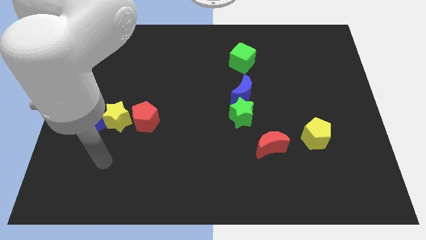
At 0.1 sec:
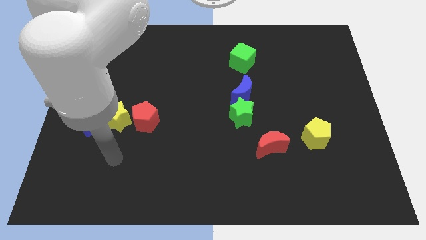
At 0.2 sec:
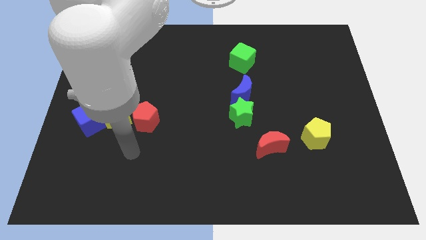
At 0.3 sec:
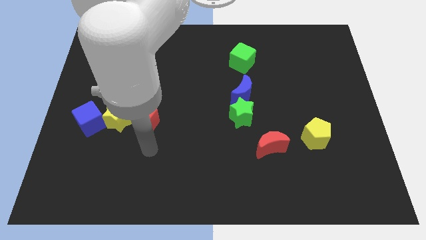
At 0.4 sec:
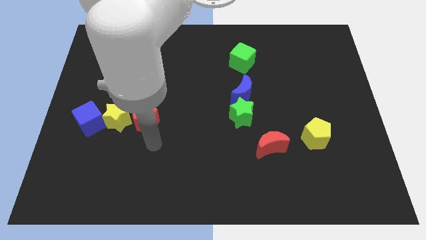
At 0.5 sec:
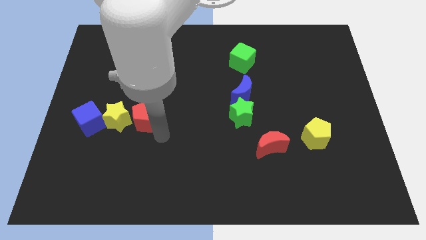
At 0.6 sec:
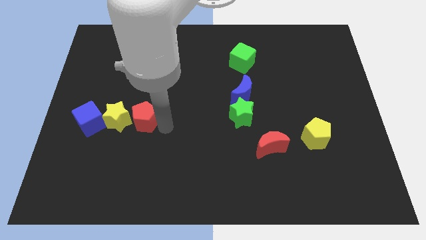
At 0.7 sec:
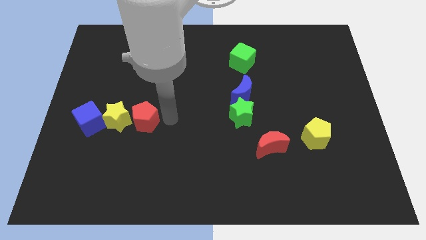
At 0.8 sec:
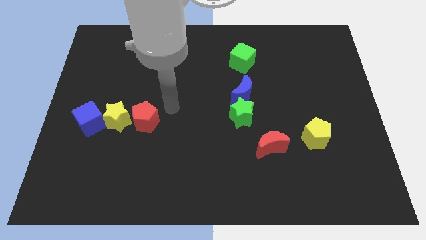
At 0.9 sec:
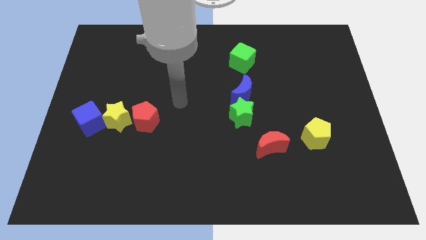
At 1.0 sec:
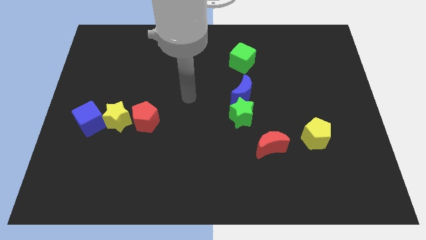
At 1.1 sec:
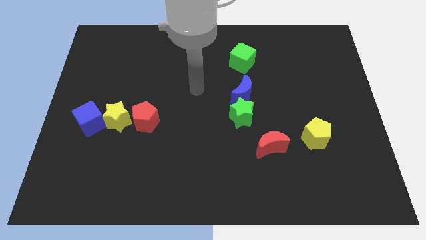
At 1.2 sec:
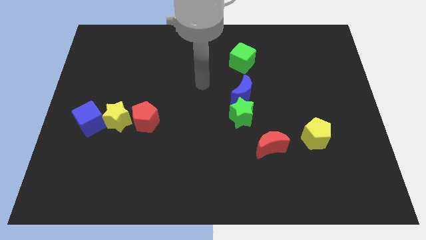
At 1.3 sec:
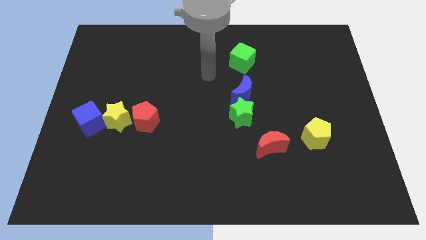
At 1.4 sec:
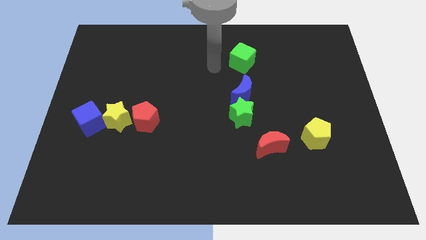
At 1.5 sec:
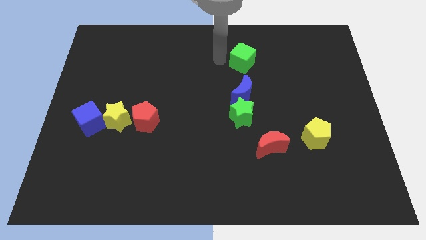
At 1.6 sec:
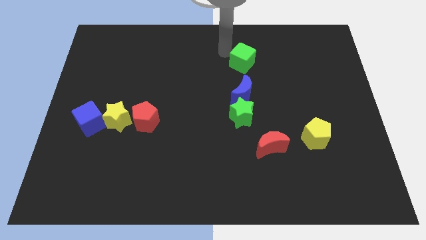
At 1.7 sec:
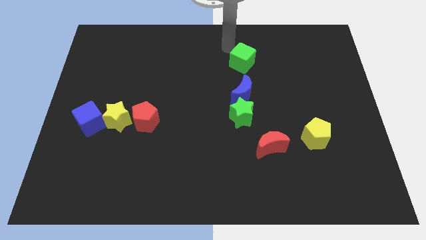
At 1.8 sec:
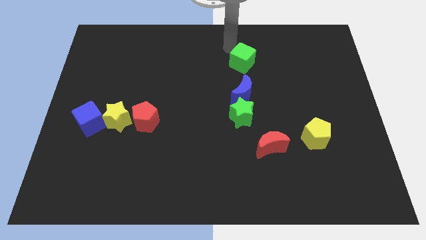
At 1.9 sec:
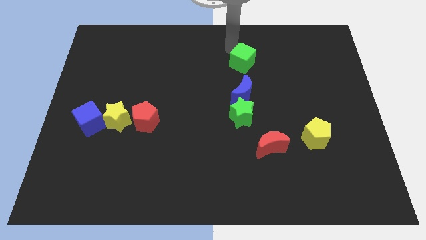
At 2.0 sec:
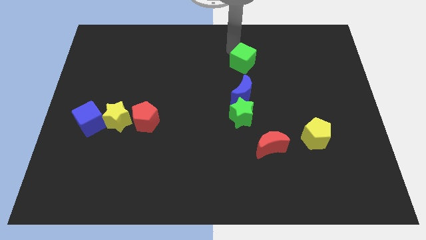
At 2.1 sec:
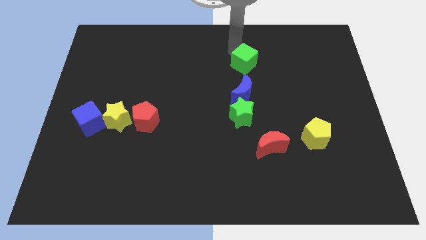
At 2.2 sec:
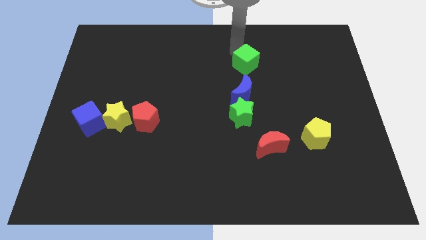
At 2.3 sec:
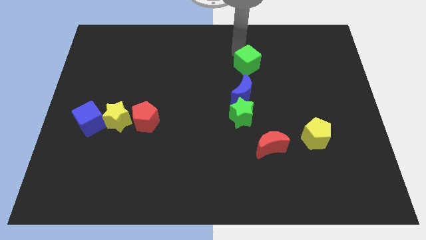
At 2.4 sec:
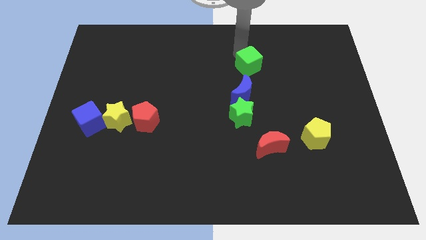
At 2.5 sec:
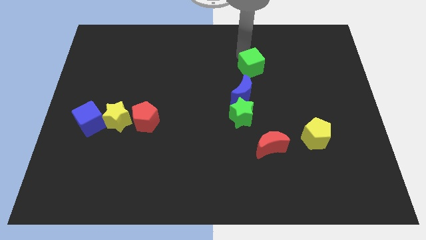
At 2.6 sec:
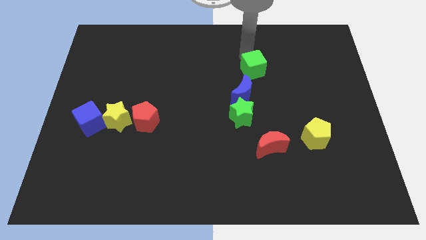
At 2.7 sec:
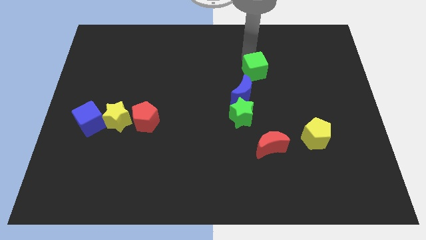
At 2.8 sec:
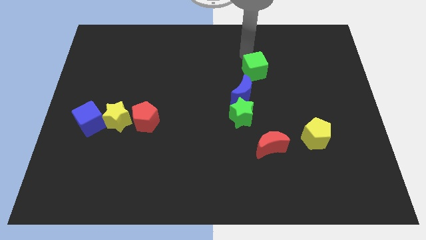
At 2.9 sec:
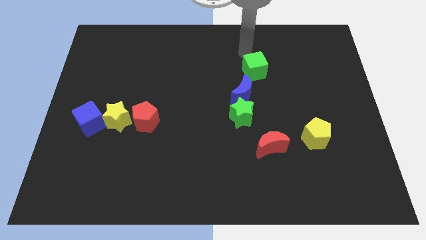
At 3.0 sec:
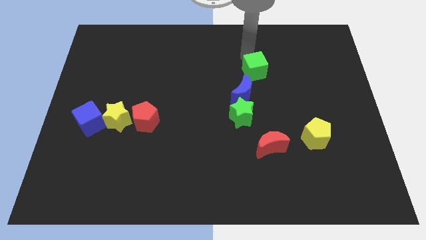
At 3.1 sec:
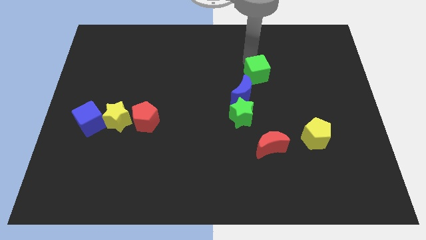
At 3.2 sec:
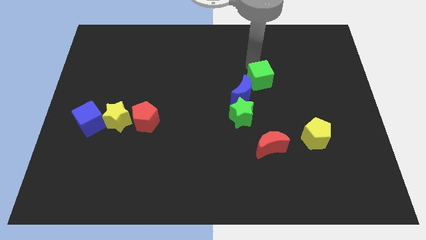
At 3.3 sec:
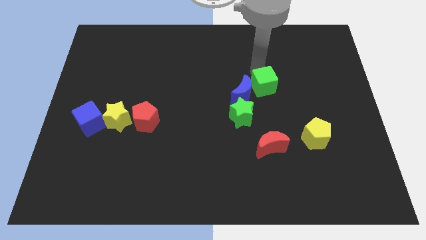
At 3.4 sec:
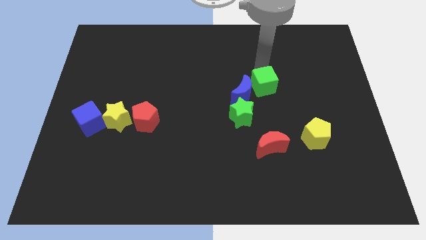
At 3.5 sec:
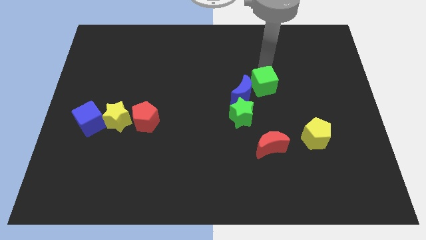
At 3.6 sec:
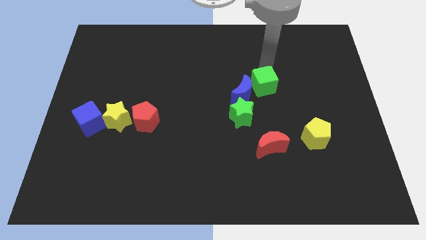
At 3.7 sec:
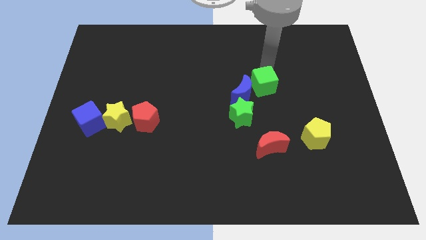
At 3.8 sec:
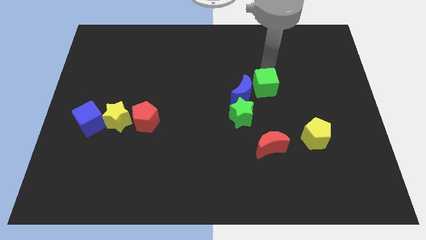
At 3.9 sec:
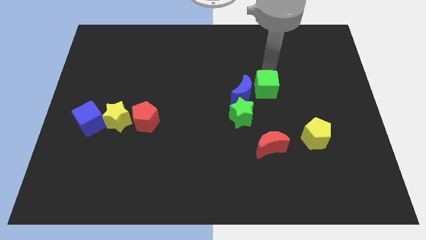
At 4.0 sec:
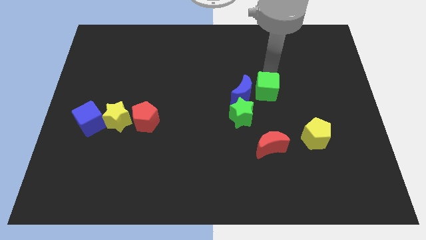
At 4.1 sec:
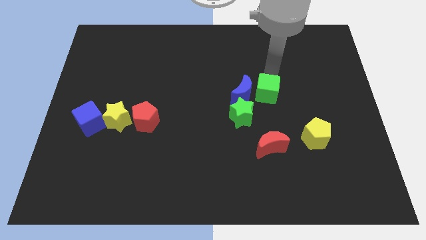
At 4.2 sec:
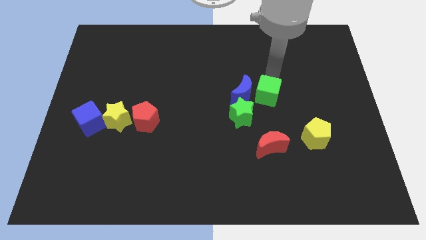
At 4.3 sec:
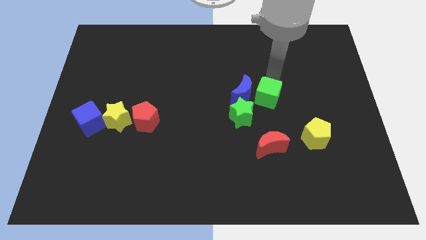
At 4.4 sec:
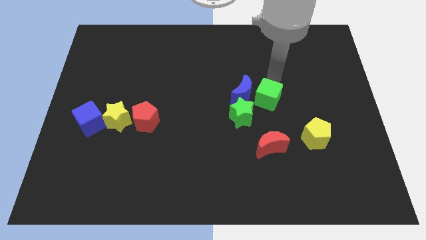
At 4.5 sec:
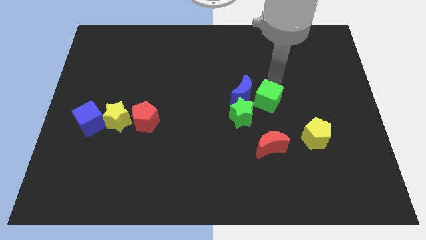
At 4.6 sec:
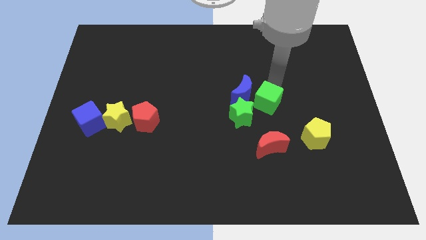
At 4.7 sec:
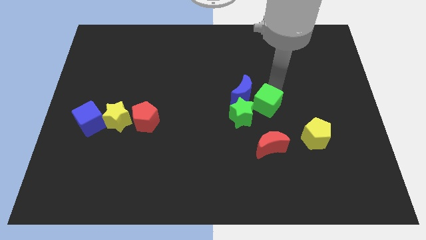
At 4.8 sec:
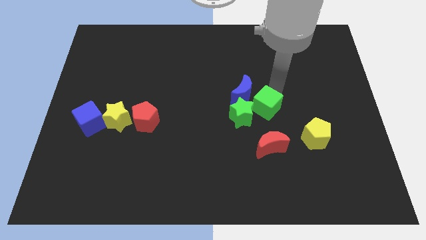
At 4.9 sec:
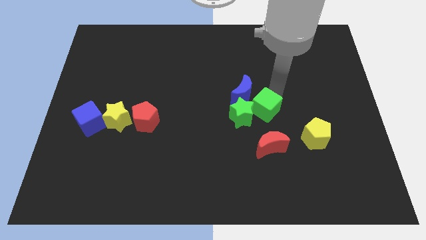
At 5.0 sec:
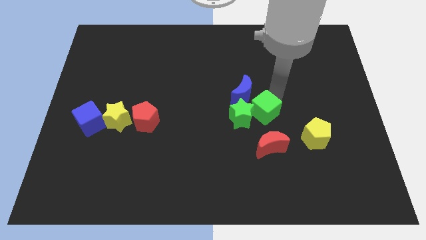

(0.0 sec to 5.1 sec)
put the green cube next to the green star

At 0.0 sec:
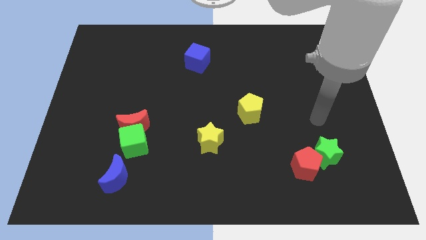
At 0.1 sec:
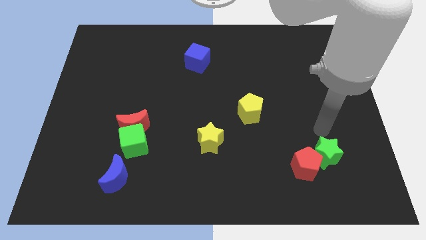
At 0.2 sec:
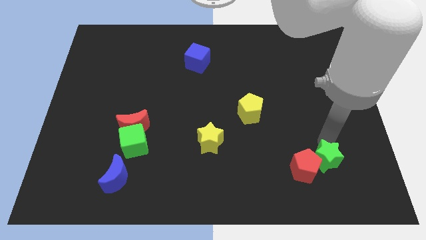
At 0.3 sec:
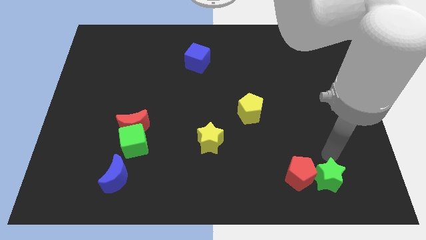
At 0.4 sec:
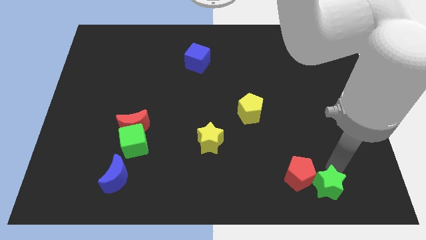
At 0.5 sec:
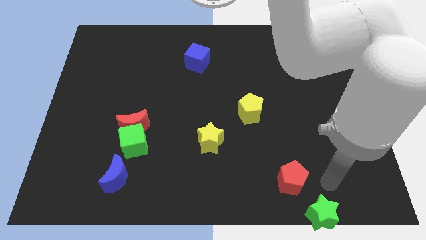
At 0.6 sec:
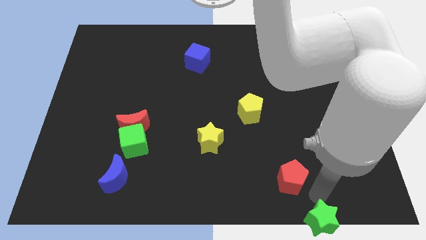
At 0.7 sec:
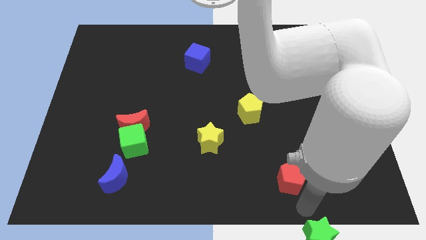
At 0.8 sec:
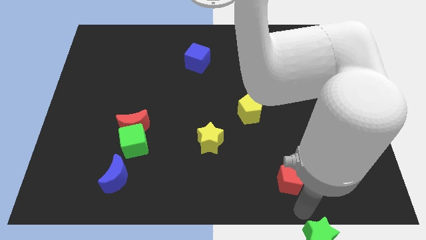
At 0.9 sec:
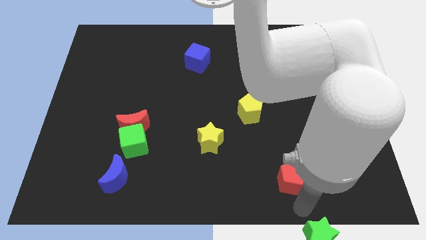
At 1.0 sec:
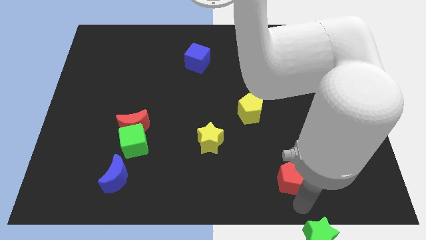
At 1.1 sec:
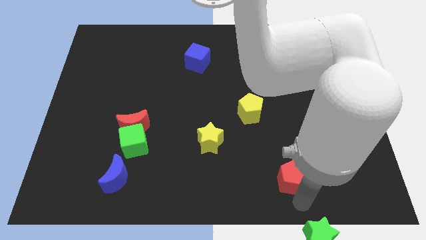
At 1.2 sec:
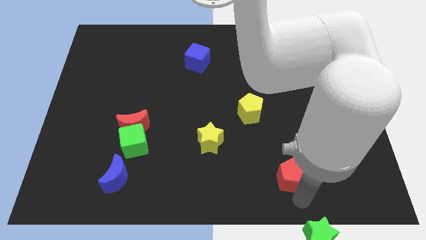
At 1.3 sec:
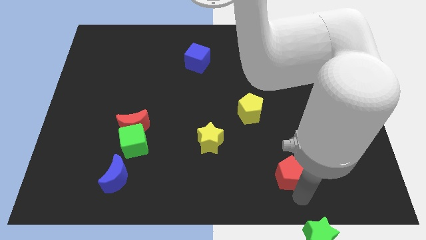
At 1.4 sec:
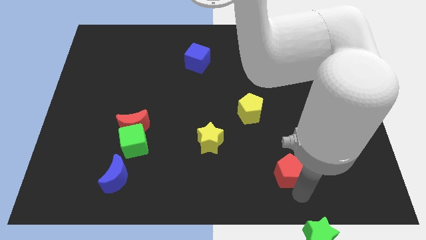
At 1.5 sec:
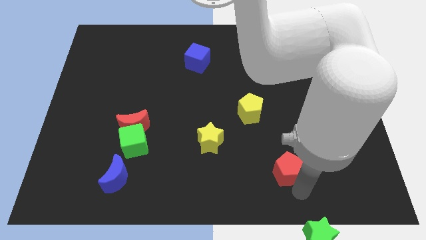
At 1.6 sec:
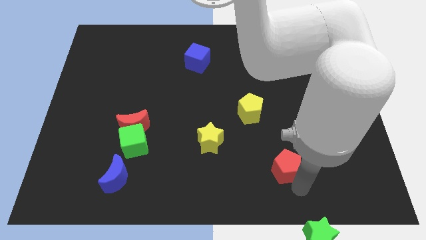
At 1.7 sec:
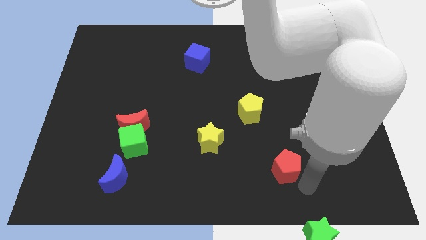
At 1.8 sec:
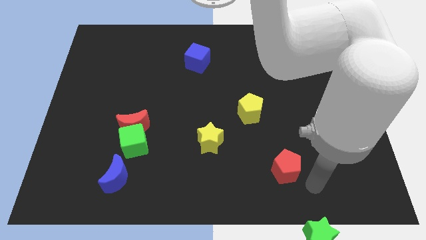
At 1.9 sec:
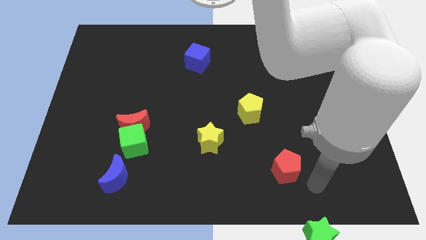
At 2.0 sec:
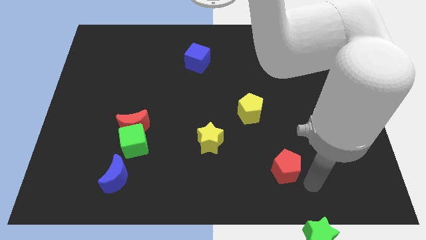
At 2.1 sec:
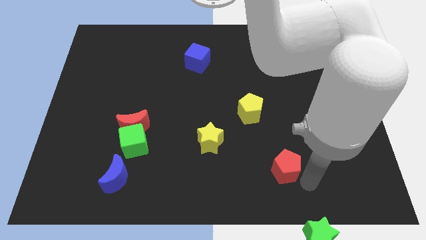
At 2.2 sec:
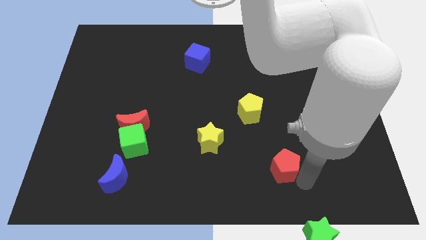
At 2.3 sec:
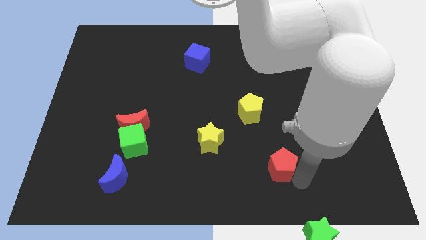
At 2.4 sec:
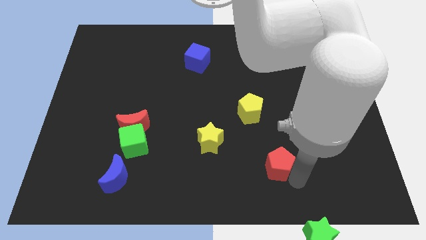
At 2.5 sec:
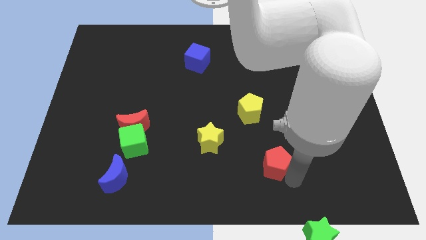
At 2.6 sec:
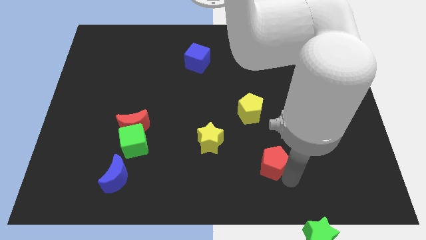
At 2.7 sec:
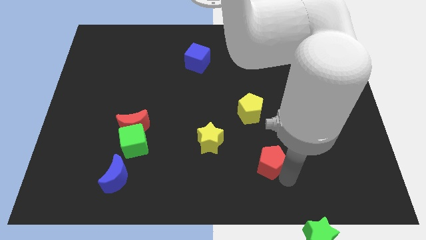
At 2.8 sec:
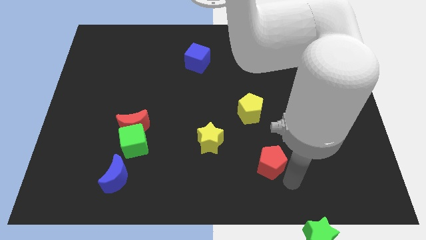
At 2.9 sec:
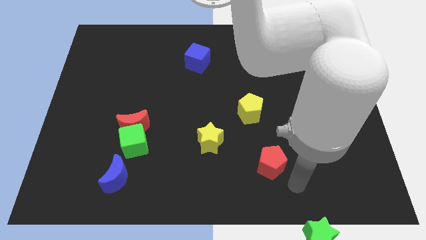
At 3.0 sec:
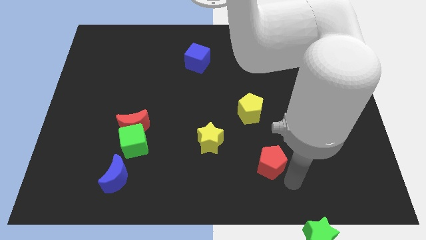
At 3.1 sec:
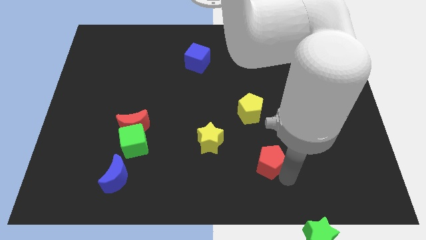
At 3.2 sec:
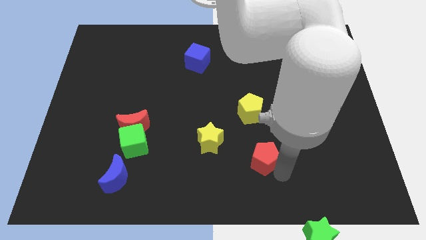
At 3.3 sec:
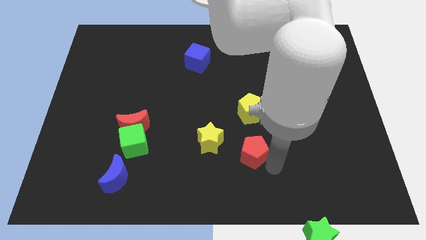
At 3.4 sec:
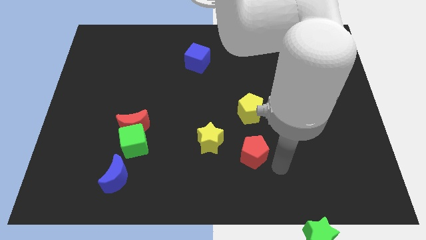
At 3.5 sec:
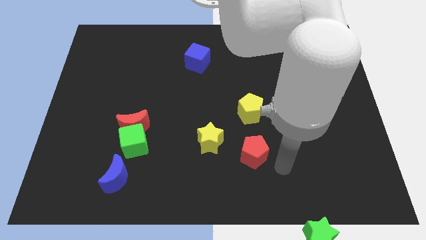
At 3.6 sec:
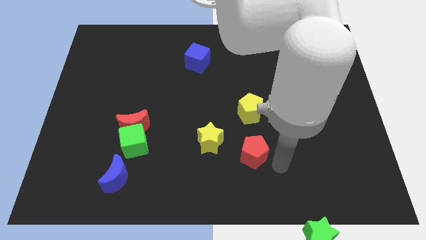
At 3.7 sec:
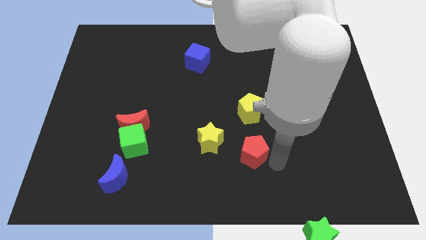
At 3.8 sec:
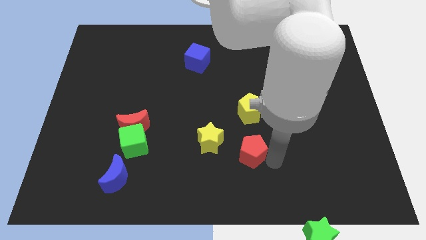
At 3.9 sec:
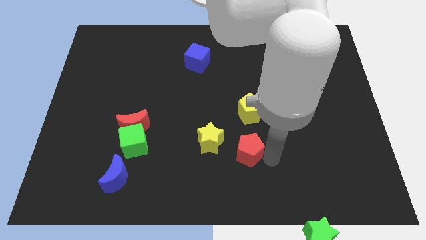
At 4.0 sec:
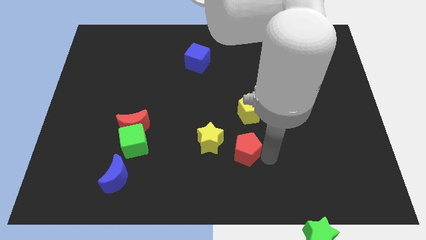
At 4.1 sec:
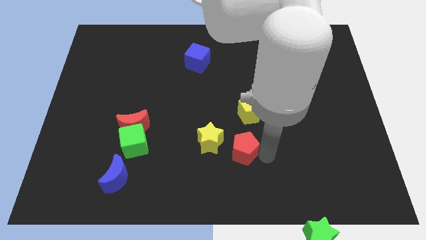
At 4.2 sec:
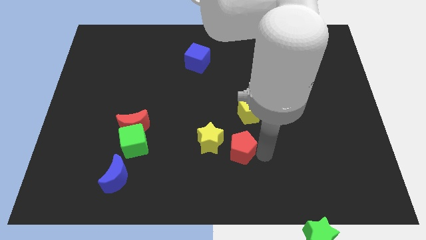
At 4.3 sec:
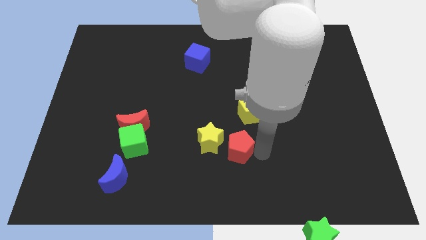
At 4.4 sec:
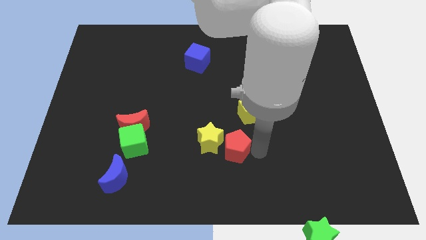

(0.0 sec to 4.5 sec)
slide the red pentagon towards the yellow star
